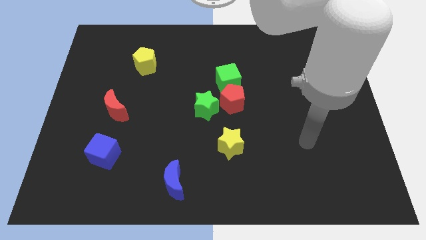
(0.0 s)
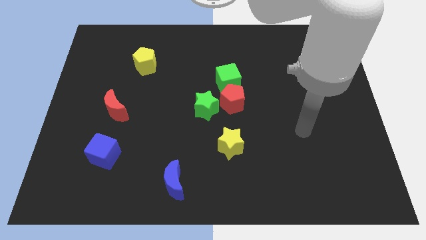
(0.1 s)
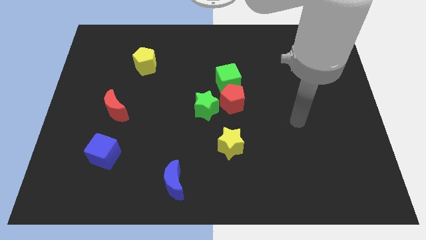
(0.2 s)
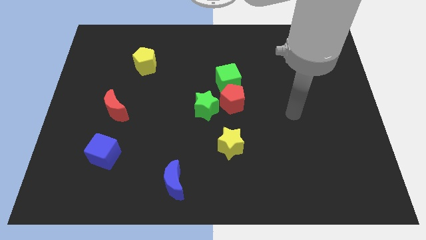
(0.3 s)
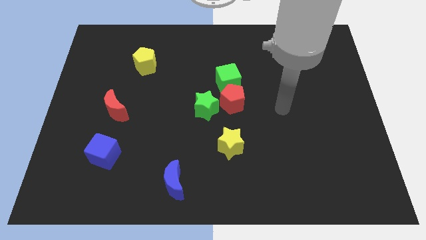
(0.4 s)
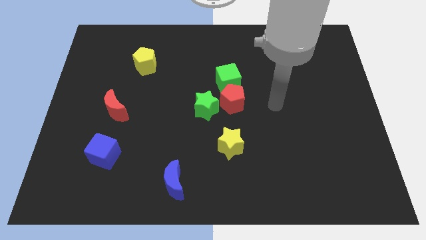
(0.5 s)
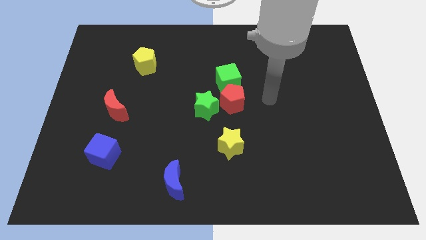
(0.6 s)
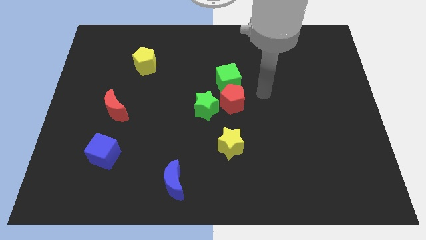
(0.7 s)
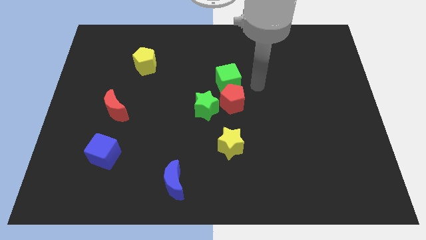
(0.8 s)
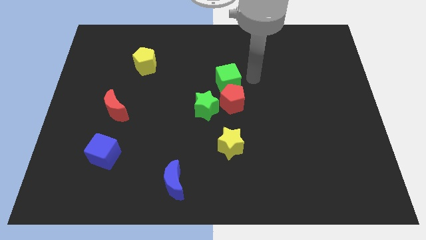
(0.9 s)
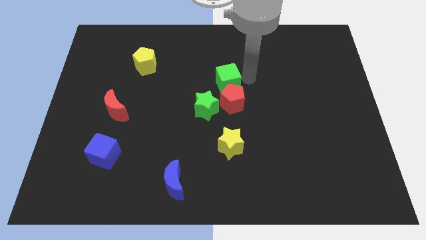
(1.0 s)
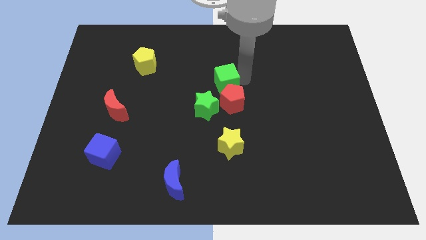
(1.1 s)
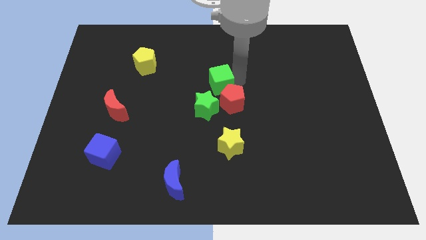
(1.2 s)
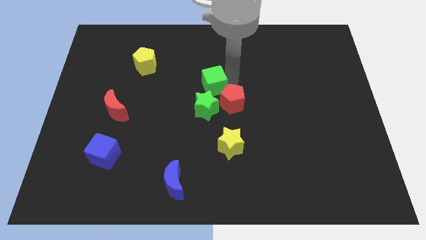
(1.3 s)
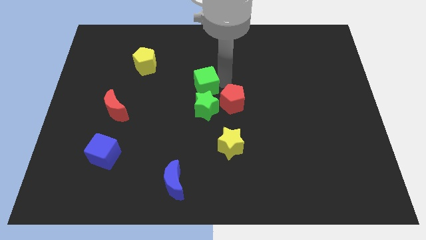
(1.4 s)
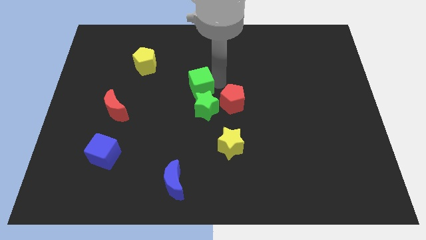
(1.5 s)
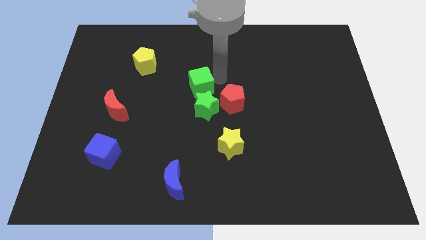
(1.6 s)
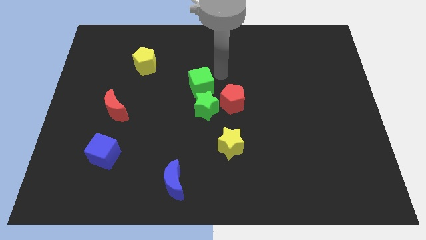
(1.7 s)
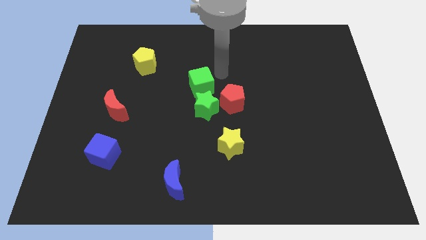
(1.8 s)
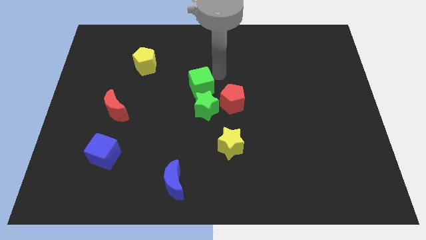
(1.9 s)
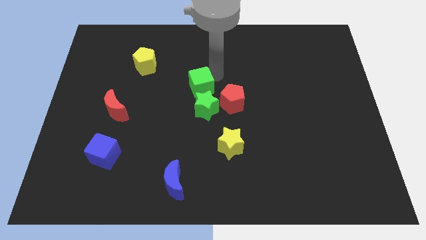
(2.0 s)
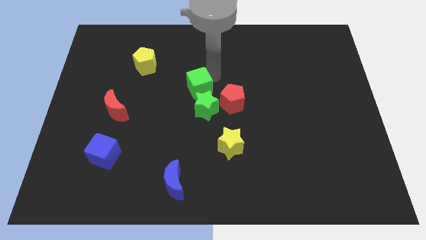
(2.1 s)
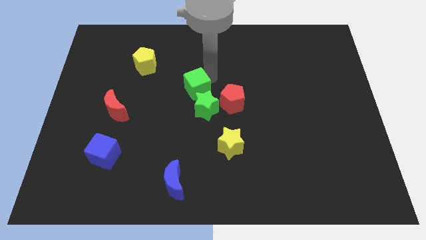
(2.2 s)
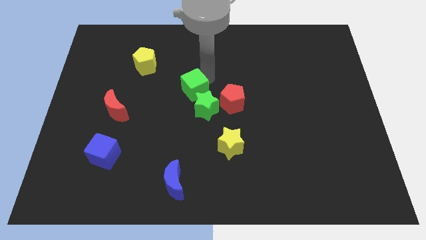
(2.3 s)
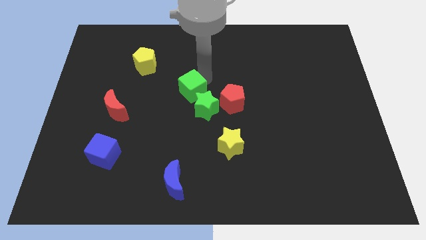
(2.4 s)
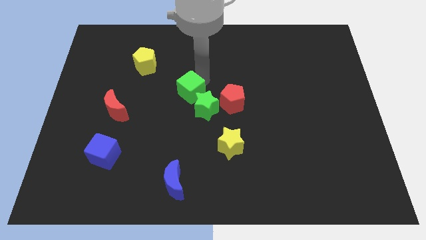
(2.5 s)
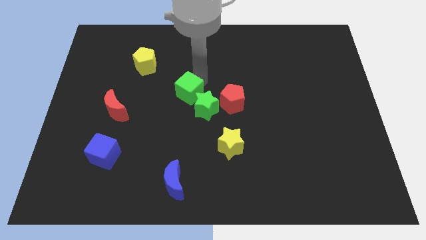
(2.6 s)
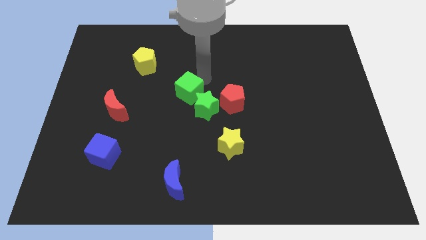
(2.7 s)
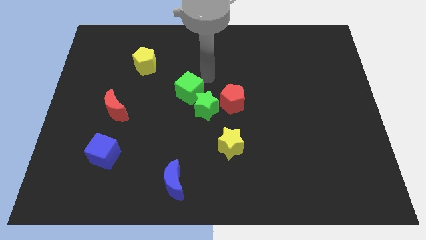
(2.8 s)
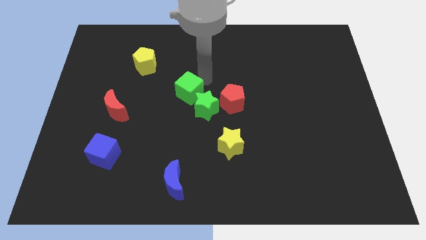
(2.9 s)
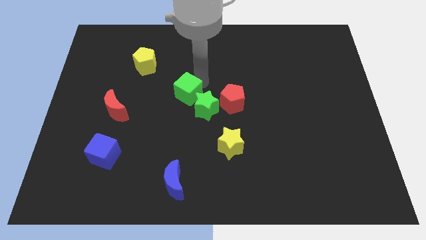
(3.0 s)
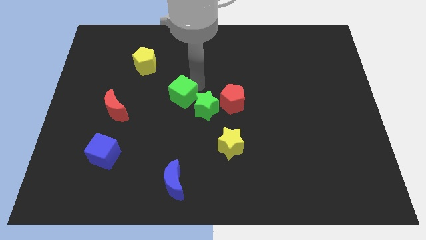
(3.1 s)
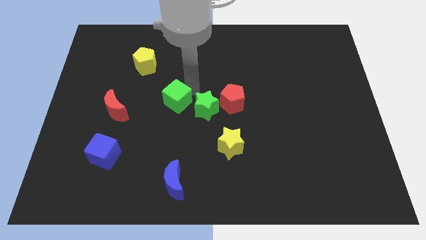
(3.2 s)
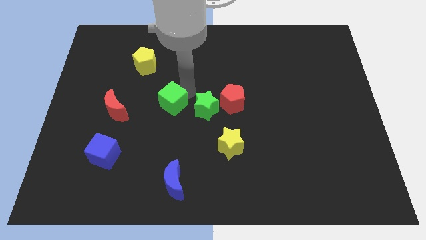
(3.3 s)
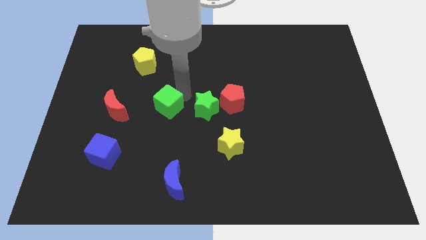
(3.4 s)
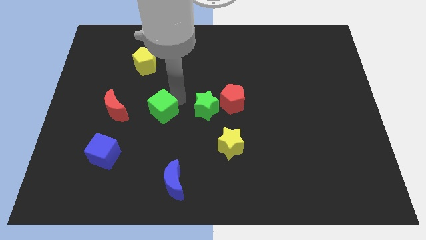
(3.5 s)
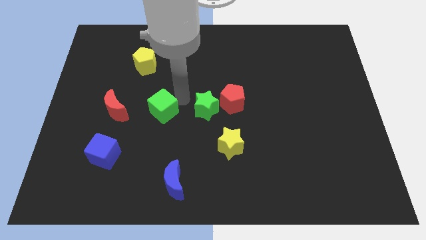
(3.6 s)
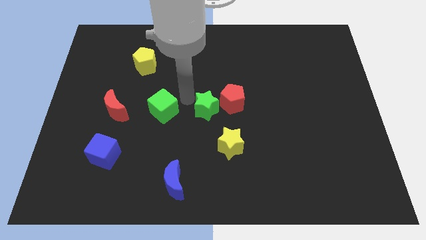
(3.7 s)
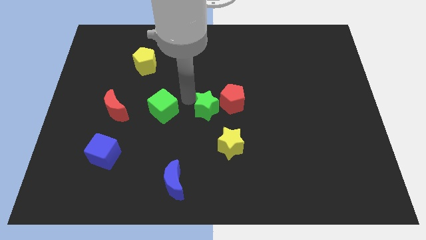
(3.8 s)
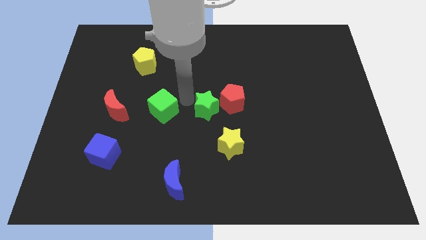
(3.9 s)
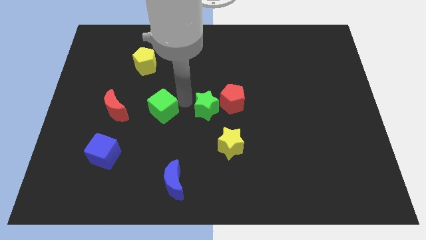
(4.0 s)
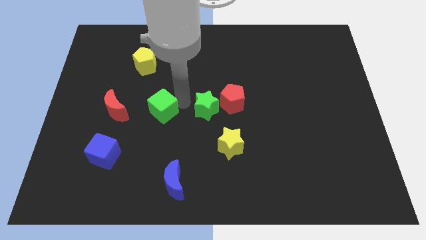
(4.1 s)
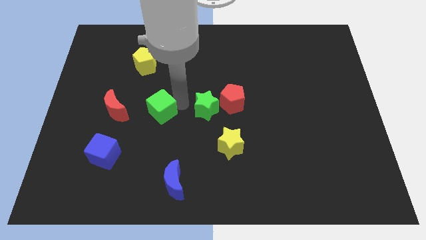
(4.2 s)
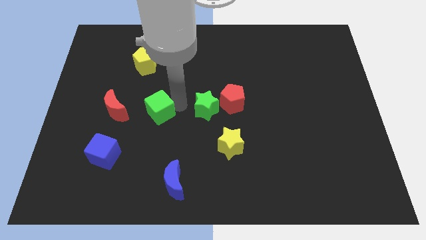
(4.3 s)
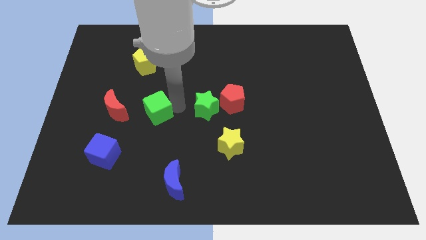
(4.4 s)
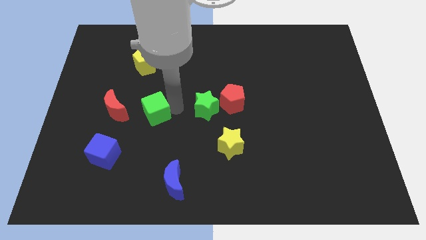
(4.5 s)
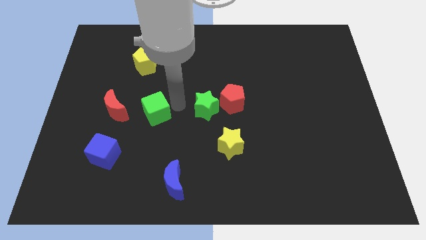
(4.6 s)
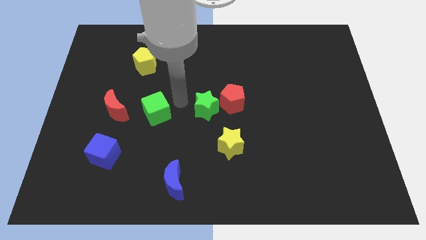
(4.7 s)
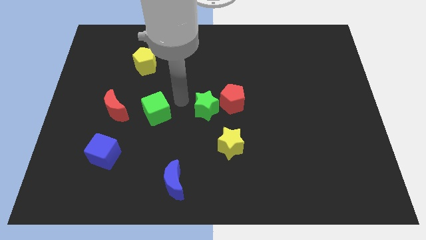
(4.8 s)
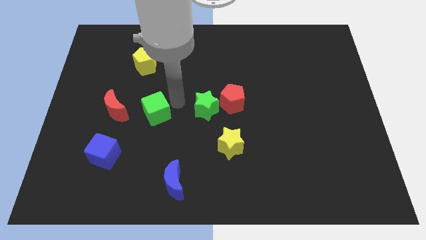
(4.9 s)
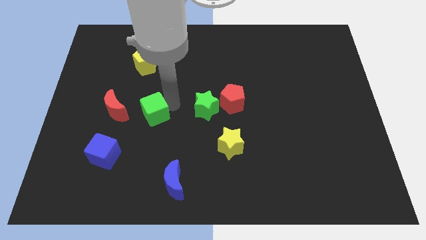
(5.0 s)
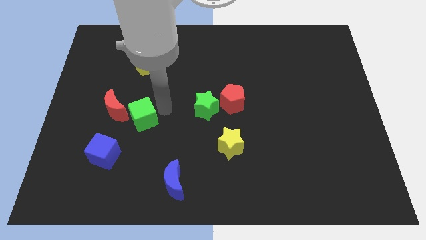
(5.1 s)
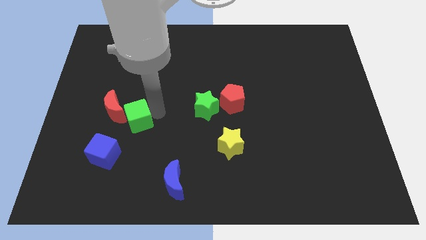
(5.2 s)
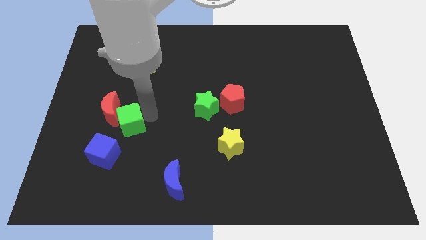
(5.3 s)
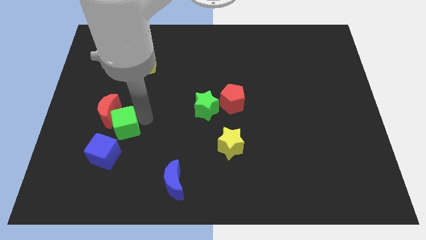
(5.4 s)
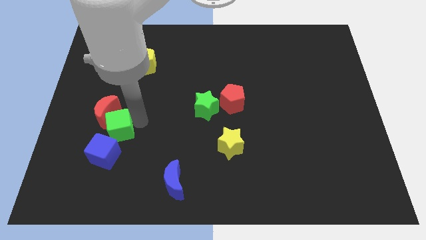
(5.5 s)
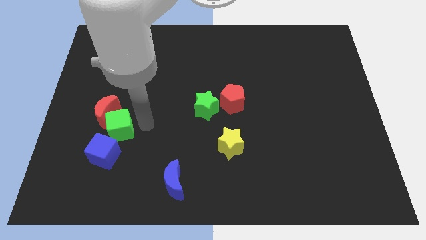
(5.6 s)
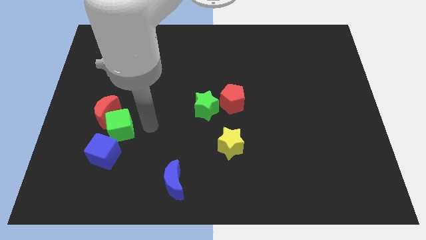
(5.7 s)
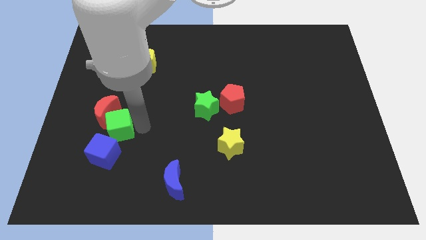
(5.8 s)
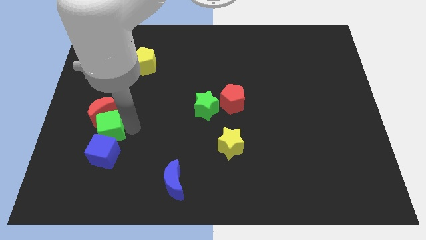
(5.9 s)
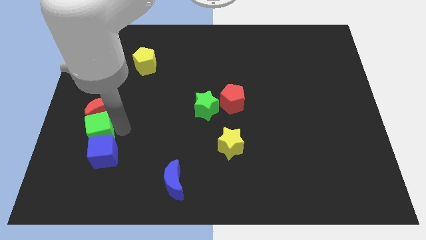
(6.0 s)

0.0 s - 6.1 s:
slide the green cube to the bottom left side of the red moon

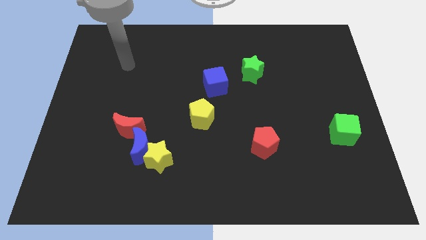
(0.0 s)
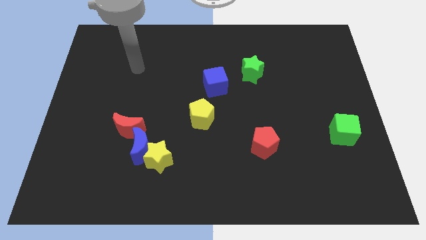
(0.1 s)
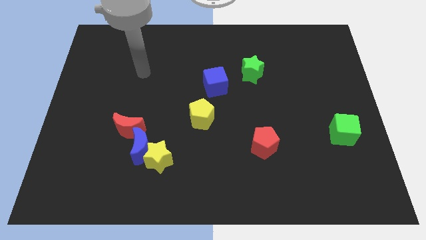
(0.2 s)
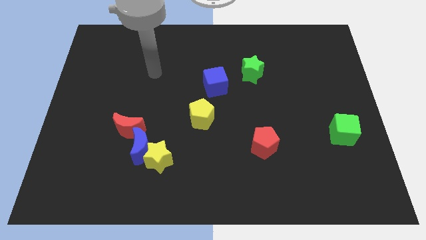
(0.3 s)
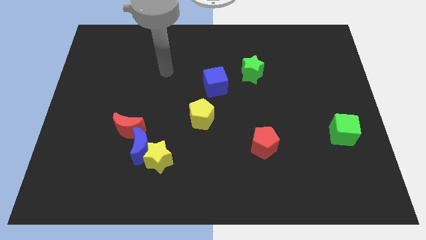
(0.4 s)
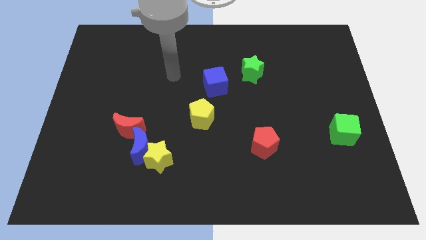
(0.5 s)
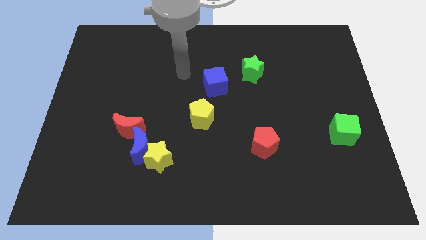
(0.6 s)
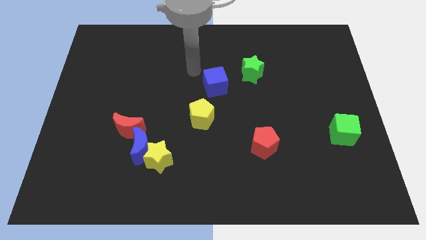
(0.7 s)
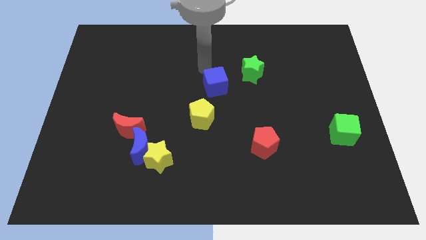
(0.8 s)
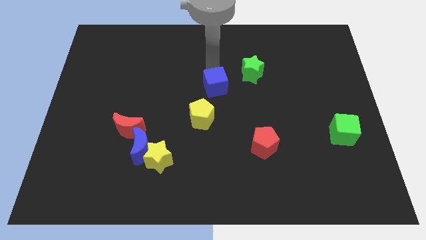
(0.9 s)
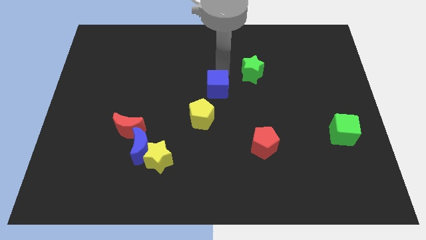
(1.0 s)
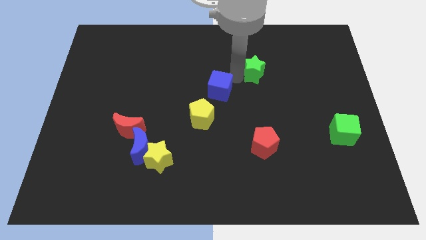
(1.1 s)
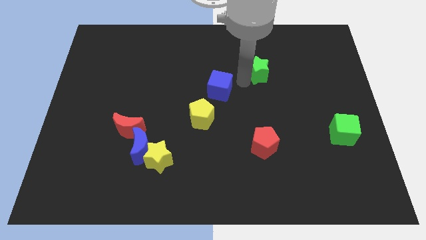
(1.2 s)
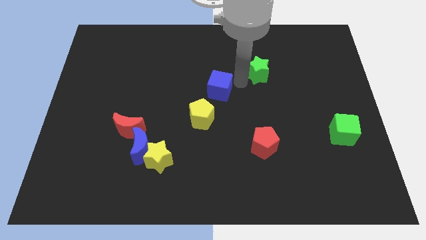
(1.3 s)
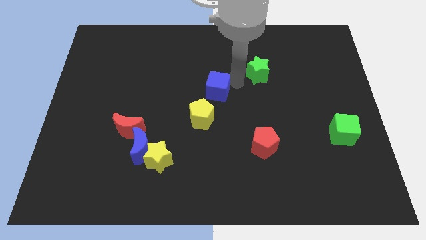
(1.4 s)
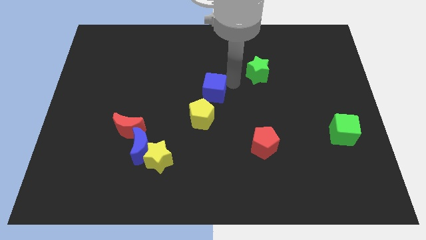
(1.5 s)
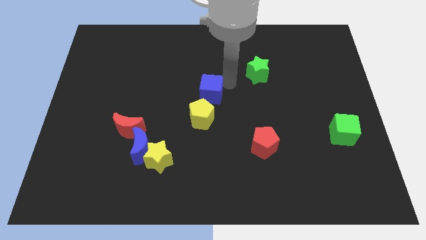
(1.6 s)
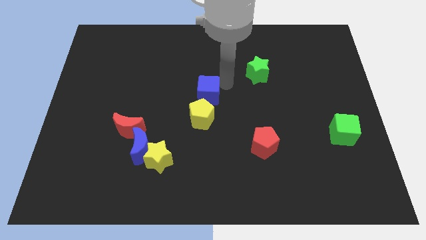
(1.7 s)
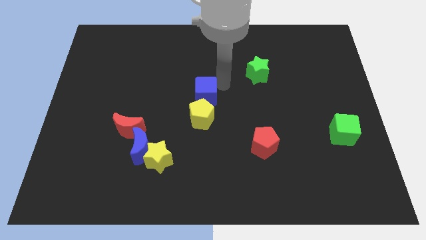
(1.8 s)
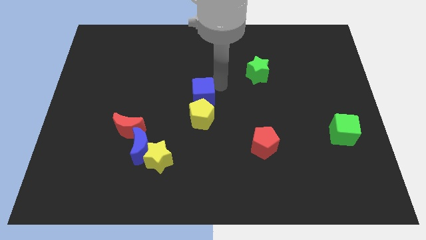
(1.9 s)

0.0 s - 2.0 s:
push the blue cube to the top left side of the yellow pentagon
